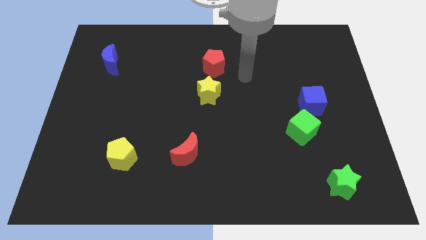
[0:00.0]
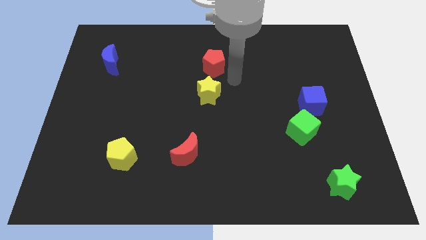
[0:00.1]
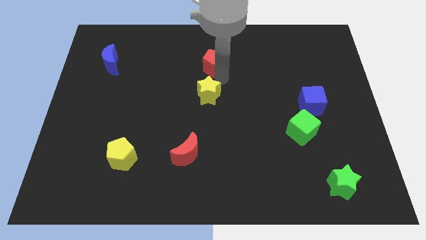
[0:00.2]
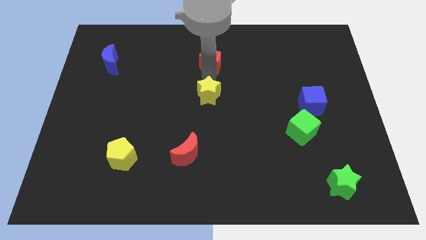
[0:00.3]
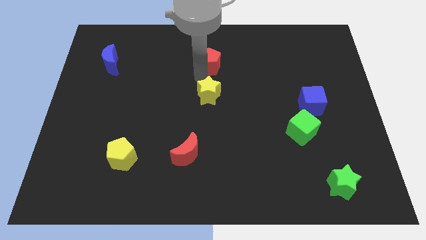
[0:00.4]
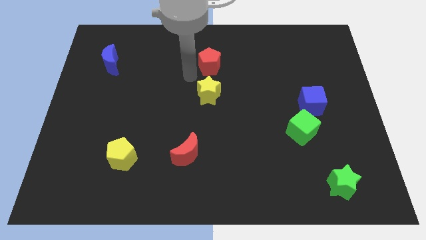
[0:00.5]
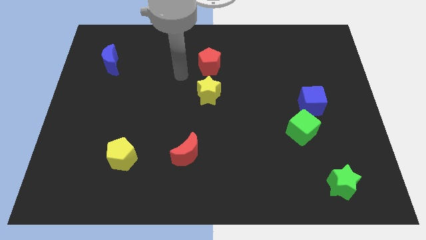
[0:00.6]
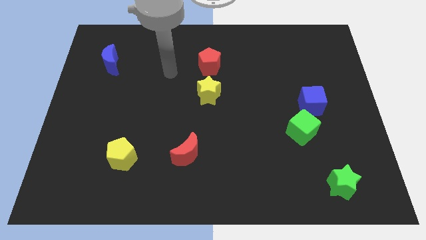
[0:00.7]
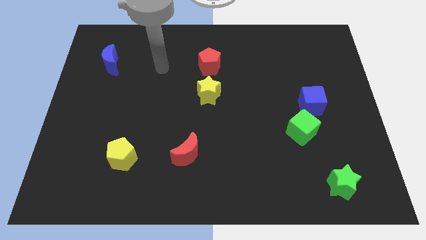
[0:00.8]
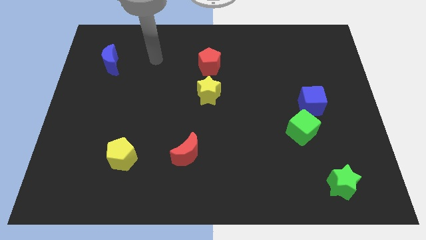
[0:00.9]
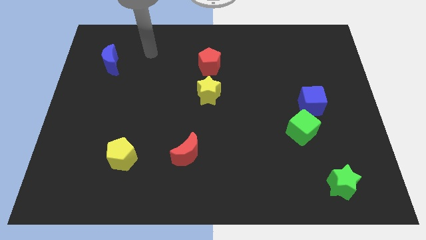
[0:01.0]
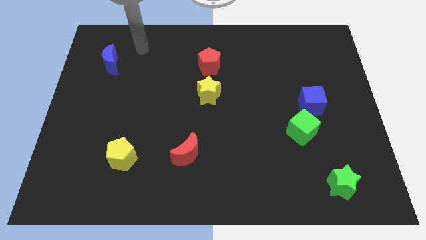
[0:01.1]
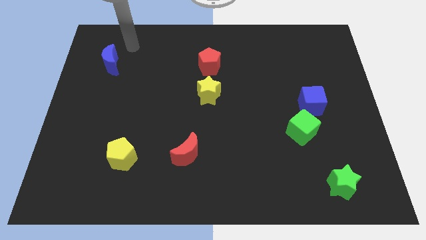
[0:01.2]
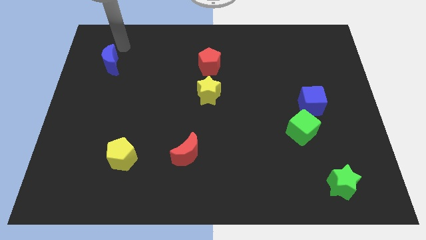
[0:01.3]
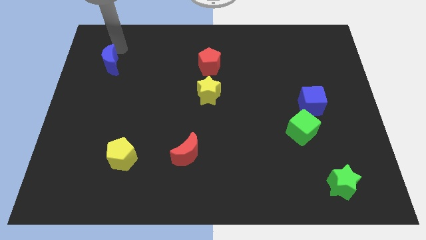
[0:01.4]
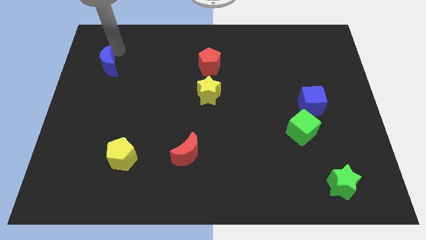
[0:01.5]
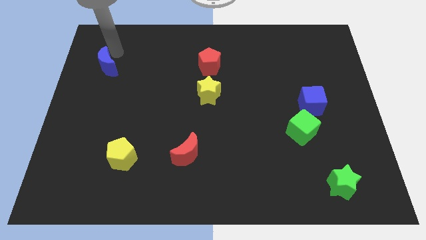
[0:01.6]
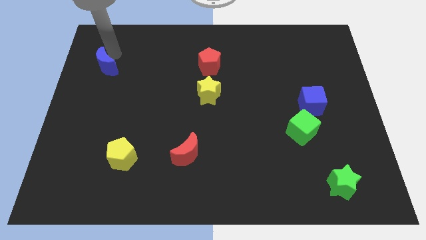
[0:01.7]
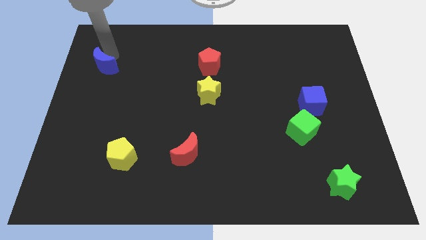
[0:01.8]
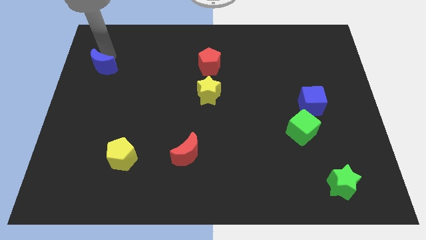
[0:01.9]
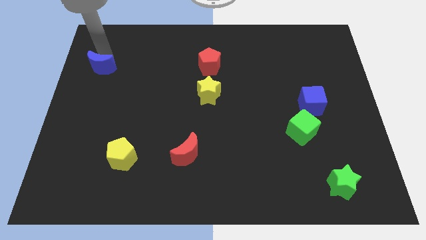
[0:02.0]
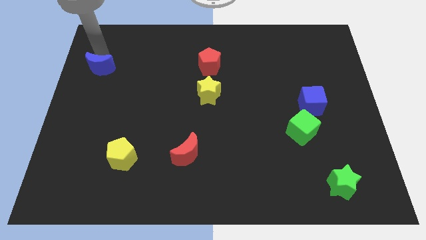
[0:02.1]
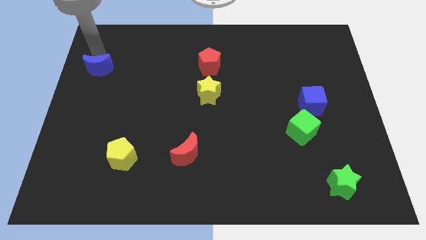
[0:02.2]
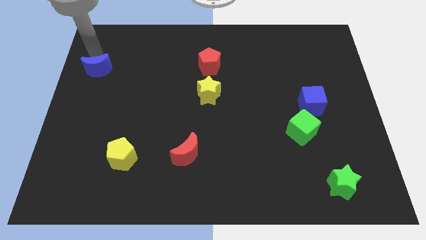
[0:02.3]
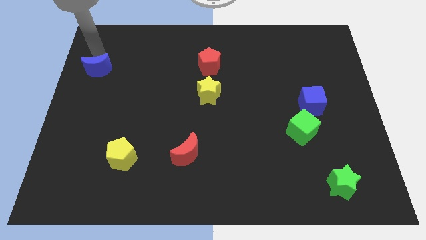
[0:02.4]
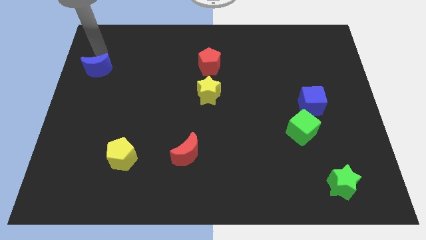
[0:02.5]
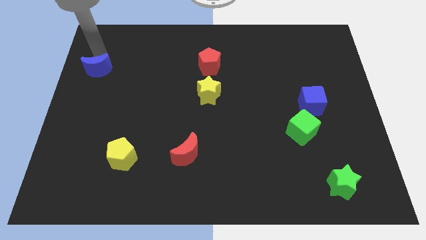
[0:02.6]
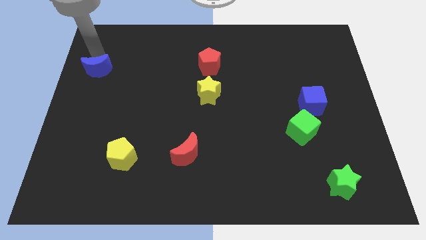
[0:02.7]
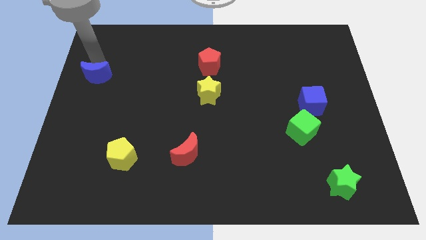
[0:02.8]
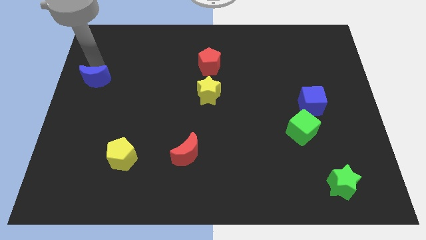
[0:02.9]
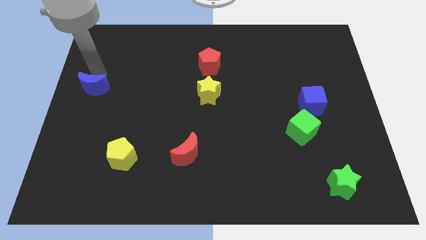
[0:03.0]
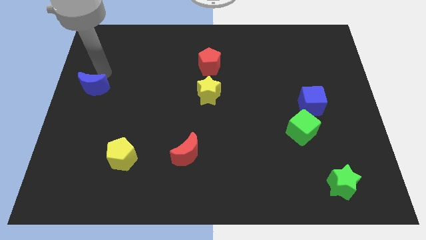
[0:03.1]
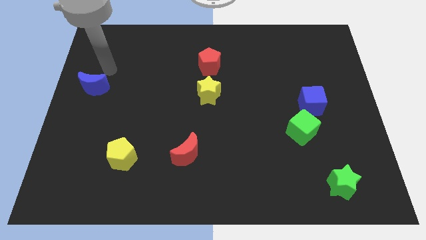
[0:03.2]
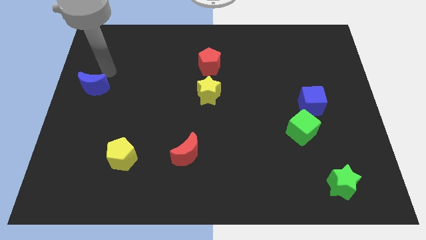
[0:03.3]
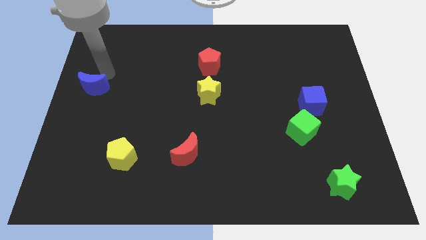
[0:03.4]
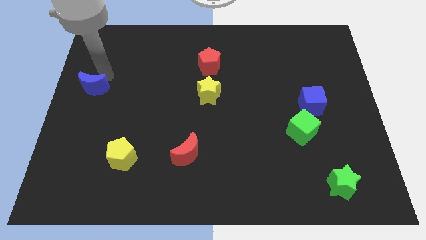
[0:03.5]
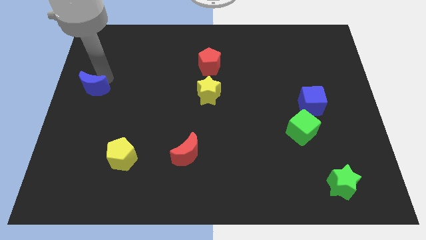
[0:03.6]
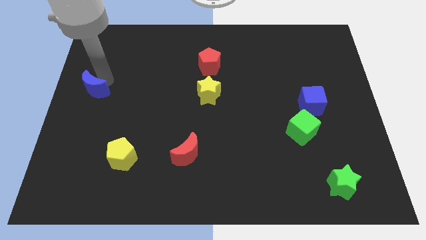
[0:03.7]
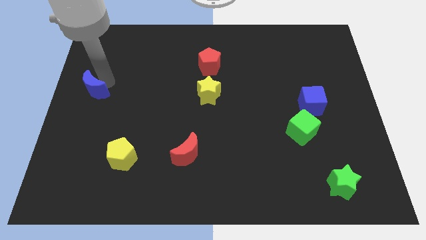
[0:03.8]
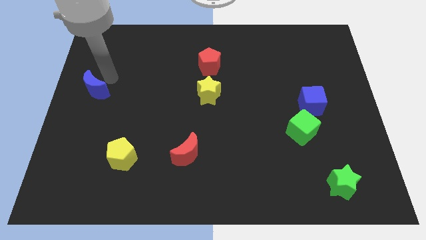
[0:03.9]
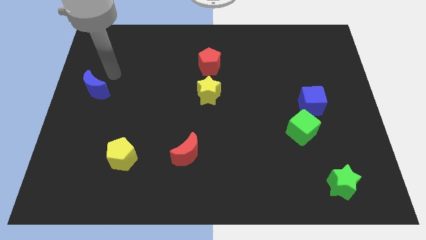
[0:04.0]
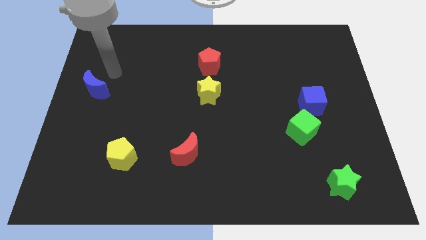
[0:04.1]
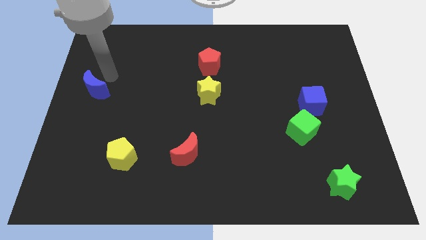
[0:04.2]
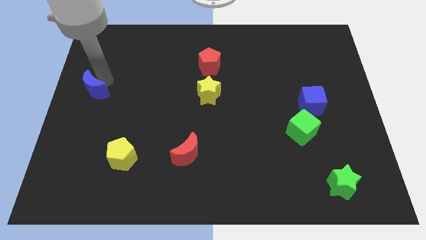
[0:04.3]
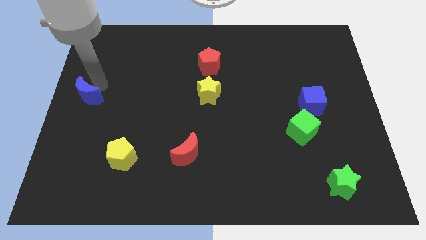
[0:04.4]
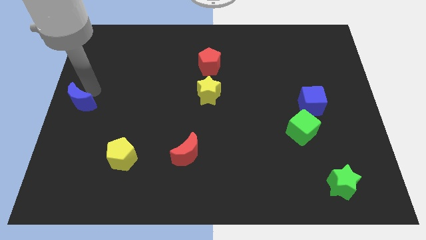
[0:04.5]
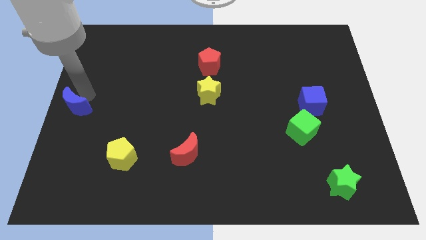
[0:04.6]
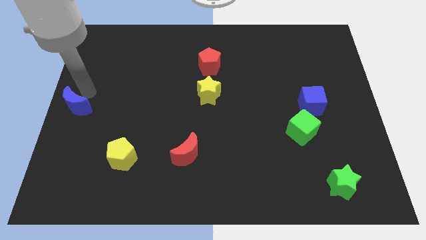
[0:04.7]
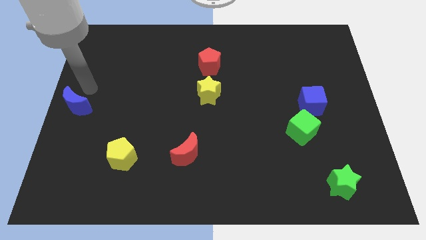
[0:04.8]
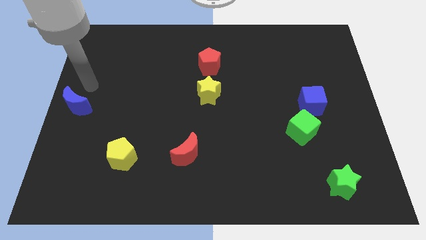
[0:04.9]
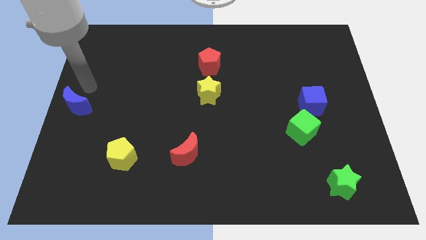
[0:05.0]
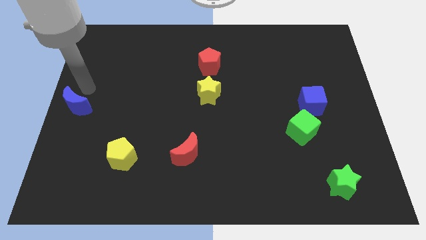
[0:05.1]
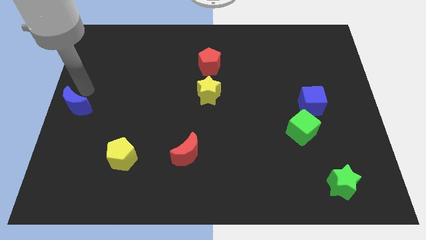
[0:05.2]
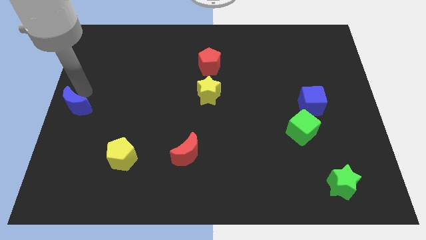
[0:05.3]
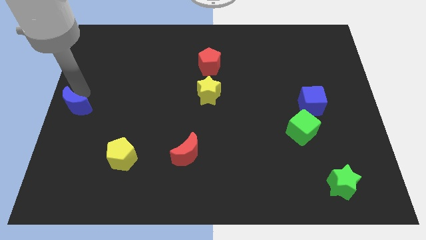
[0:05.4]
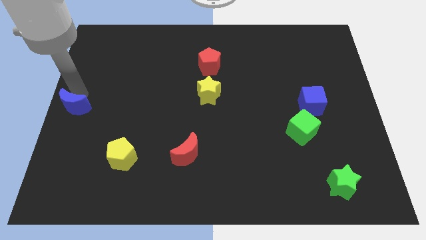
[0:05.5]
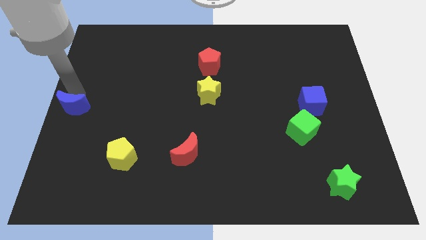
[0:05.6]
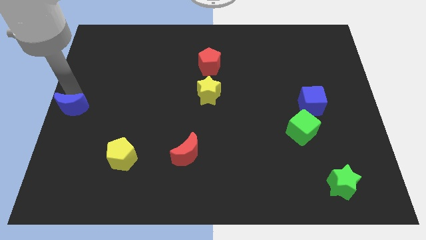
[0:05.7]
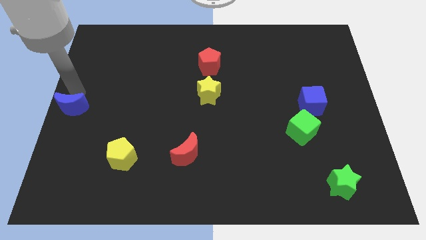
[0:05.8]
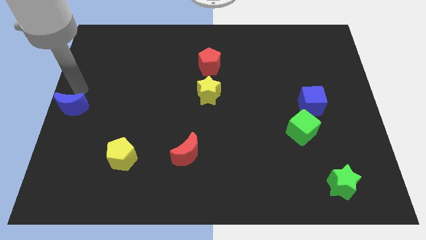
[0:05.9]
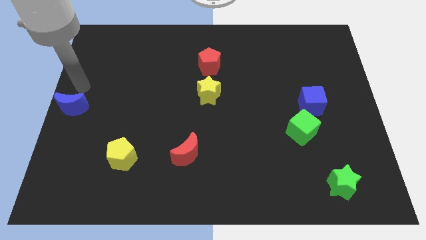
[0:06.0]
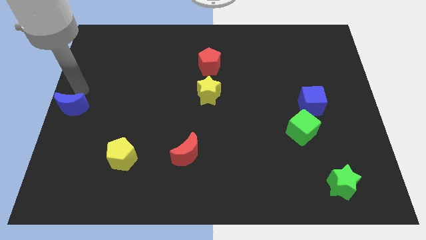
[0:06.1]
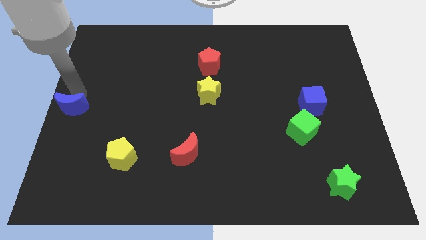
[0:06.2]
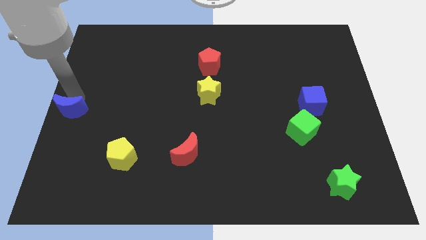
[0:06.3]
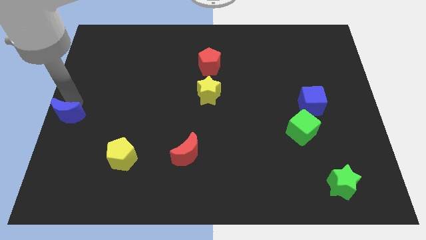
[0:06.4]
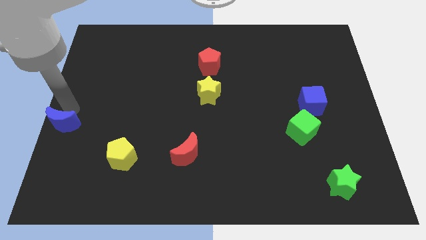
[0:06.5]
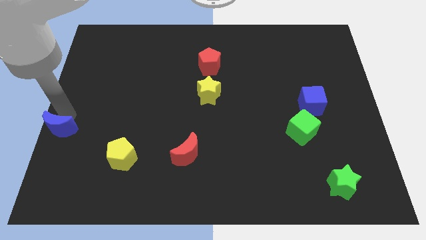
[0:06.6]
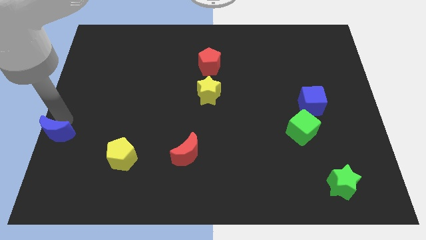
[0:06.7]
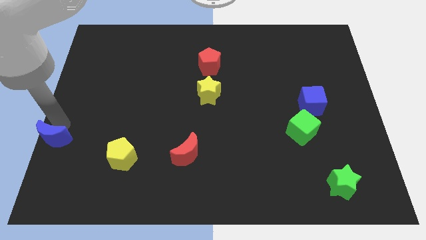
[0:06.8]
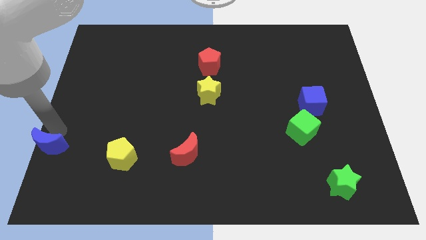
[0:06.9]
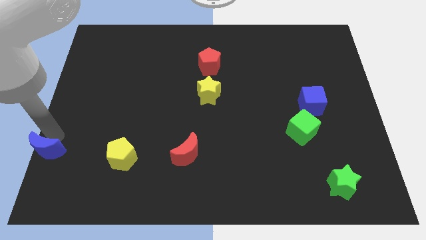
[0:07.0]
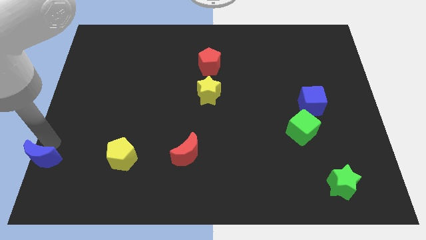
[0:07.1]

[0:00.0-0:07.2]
slide the blue moon to the lower left corner
